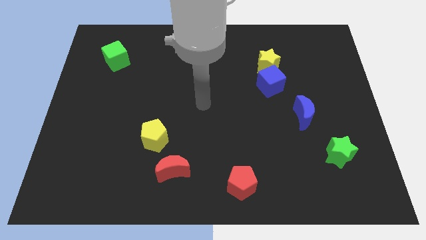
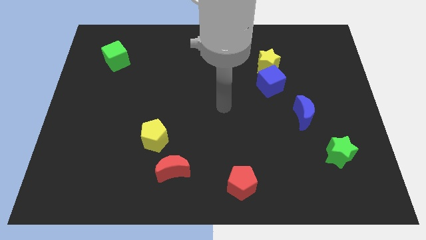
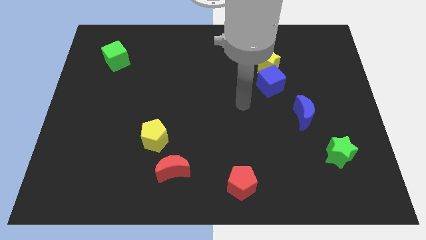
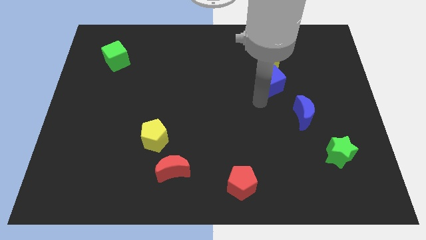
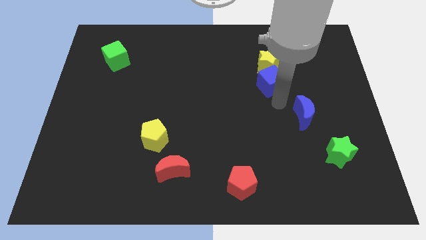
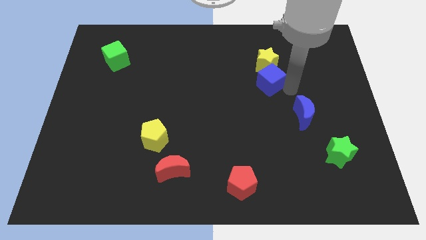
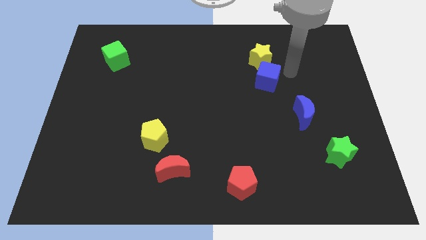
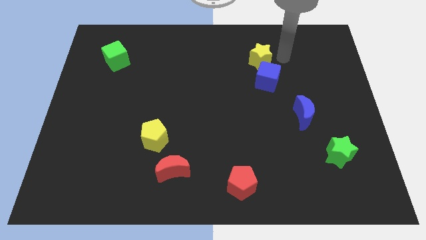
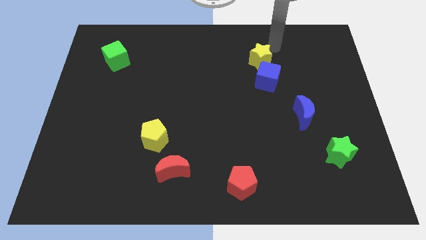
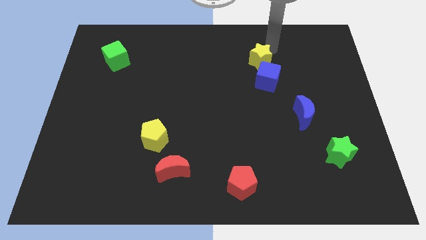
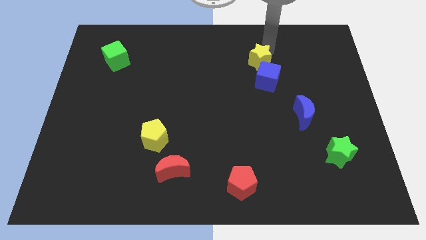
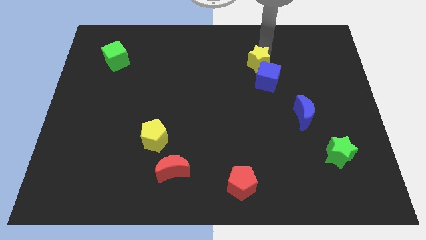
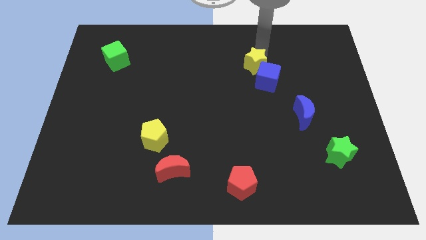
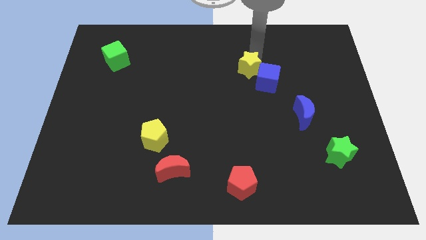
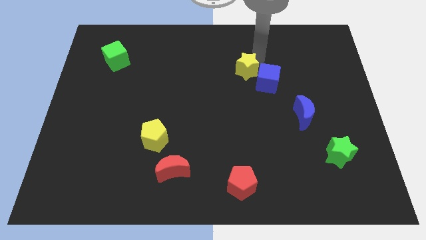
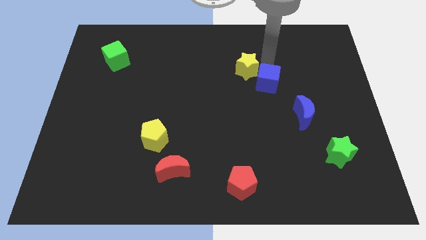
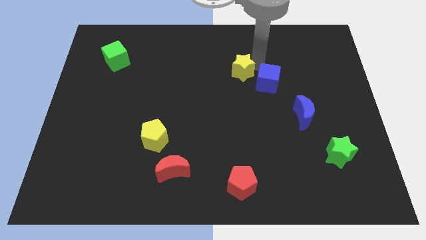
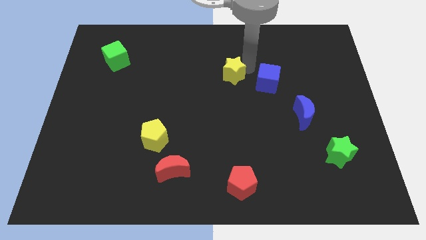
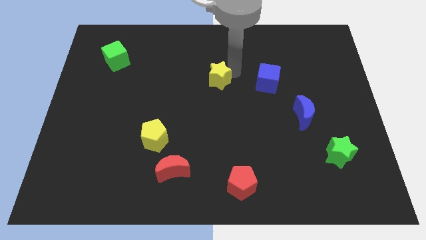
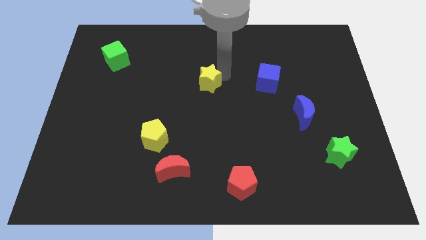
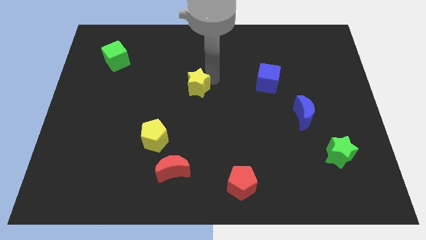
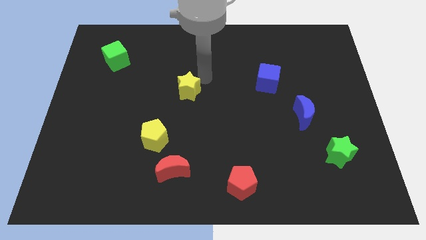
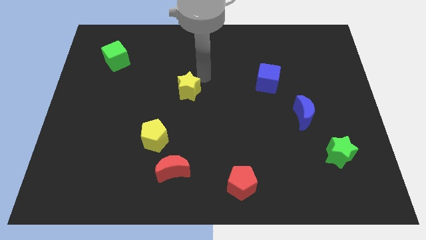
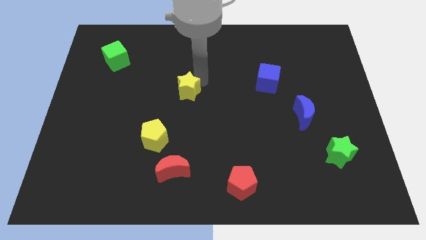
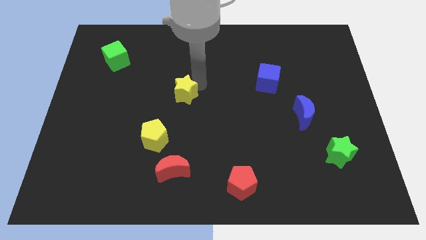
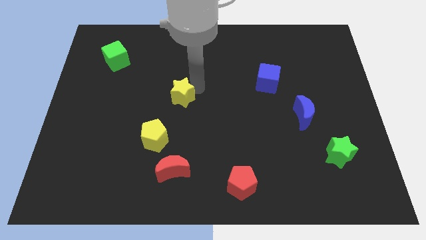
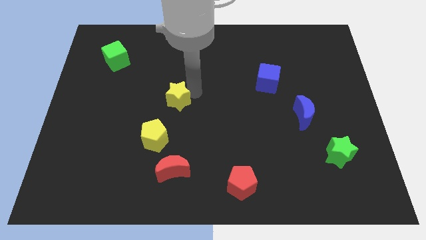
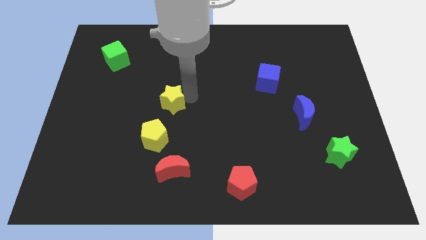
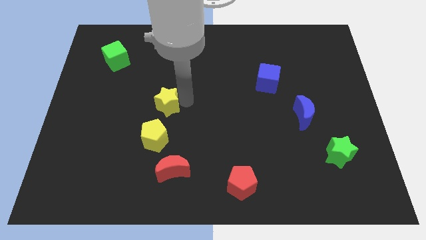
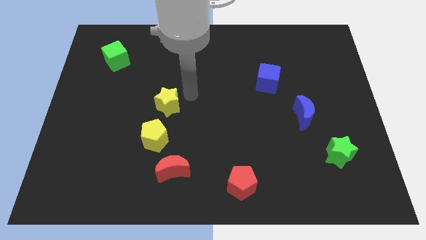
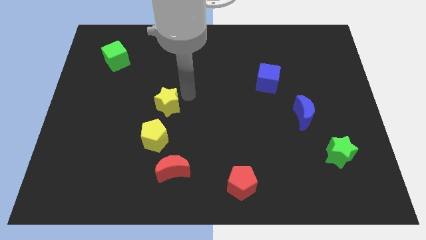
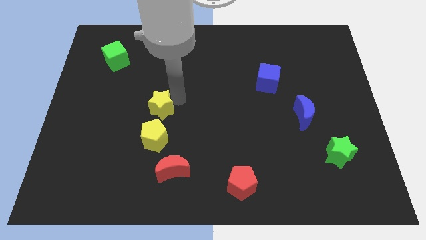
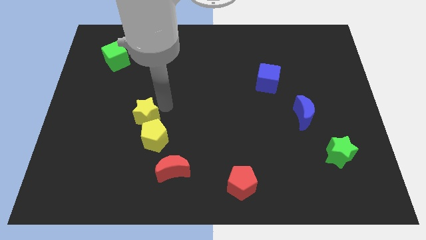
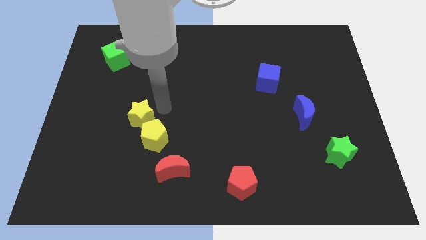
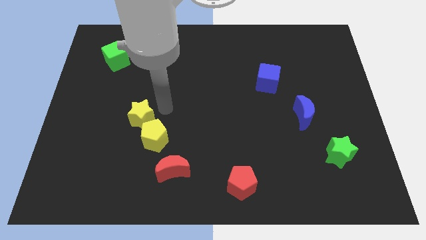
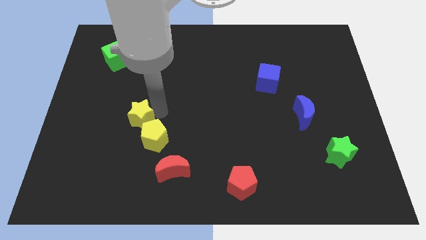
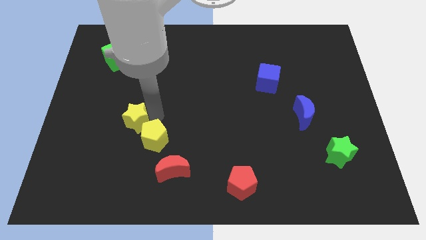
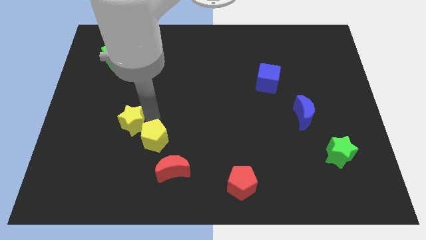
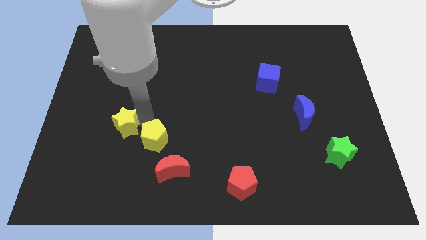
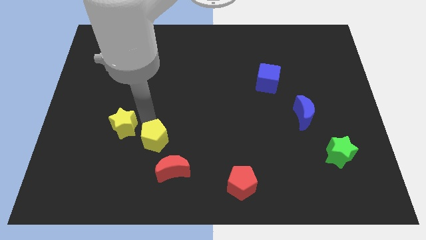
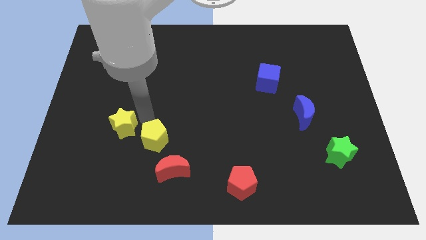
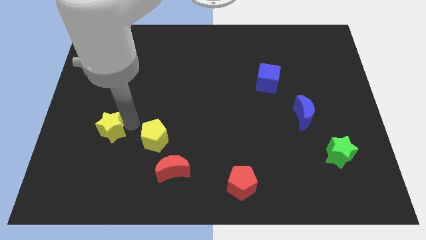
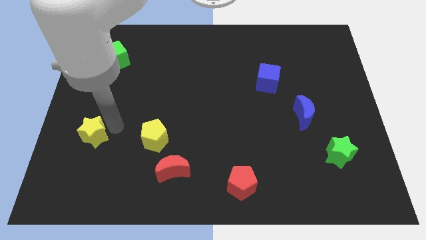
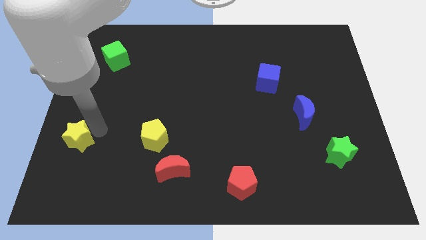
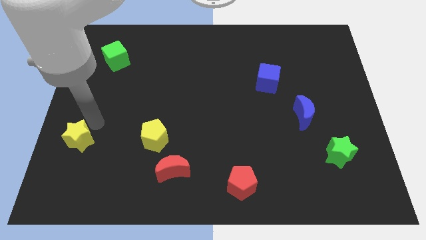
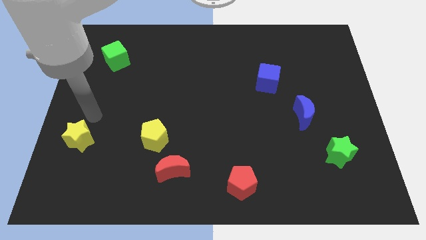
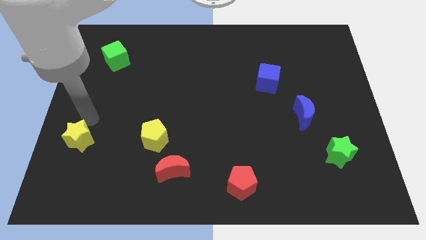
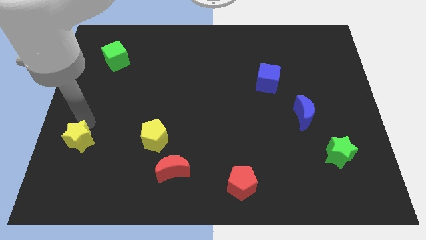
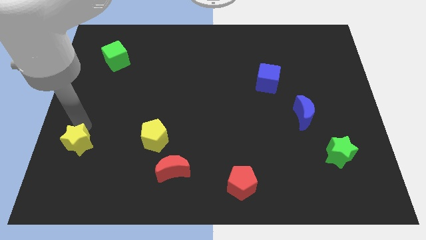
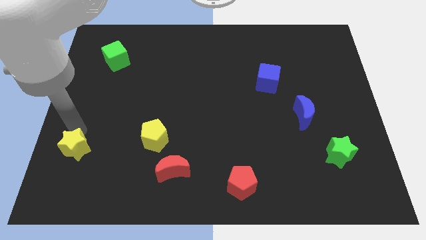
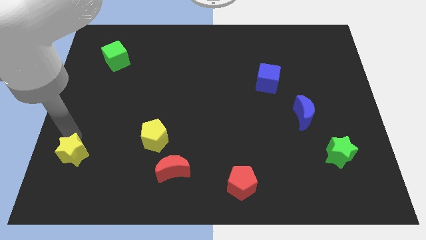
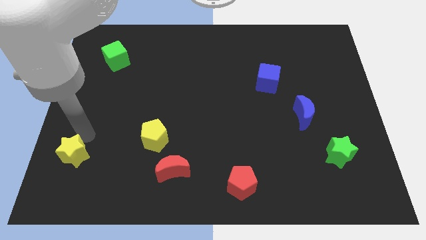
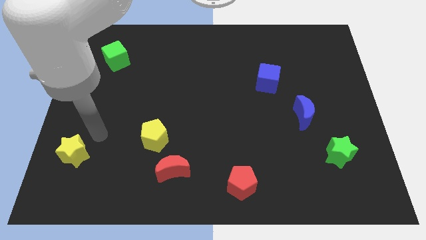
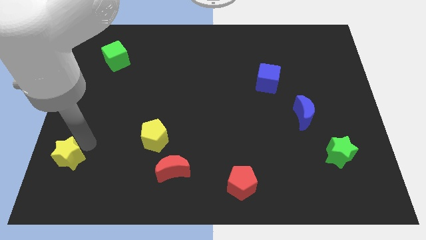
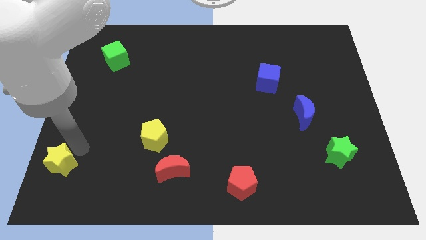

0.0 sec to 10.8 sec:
slide the yellow star to the bottom left of the board
